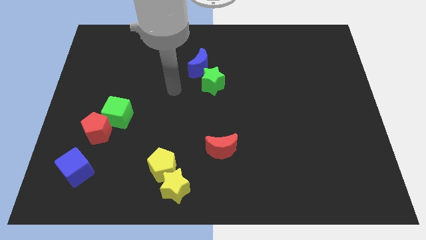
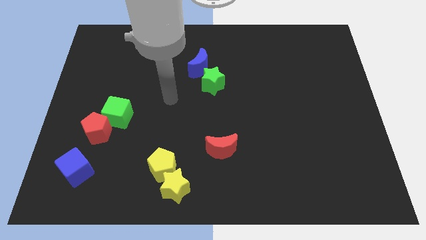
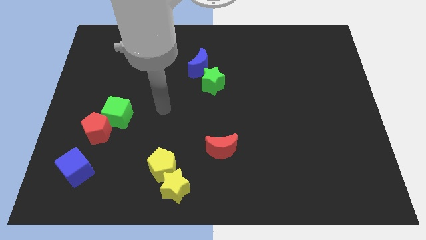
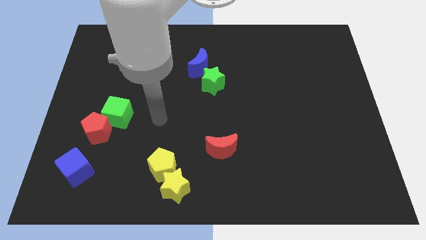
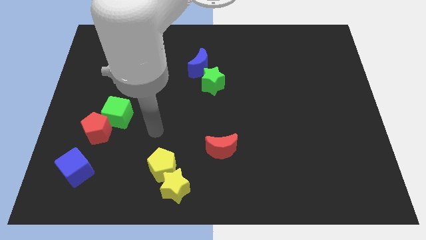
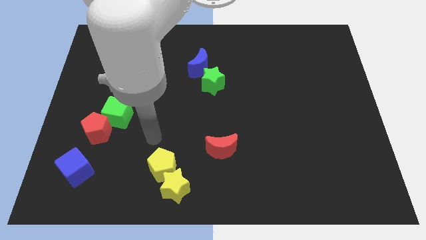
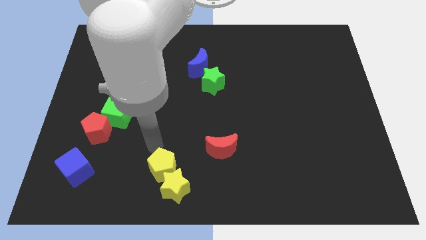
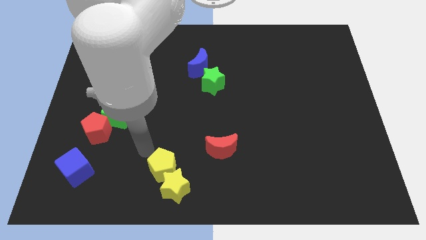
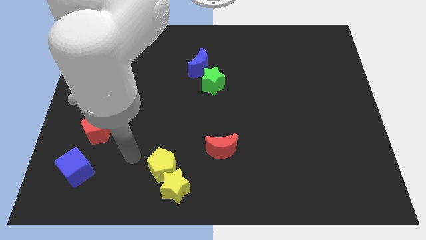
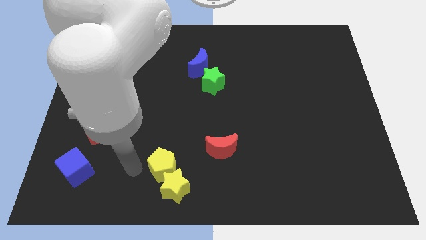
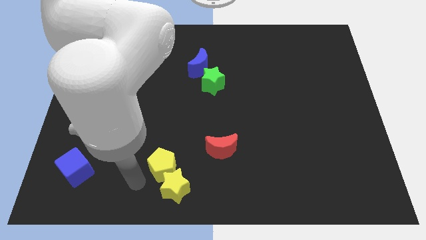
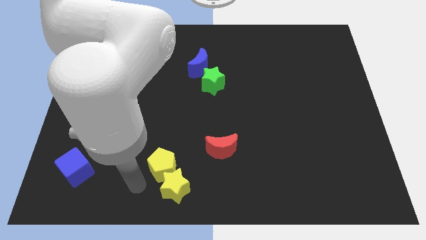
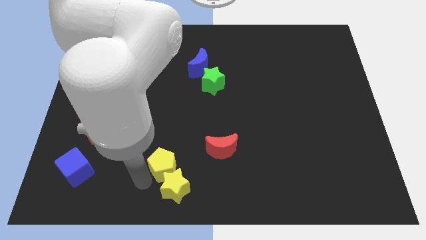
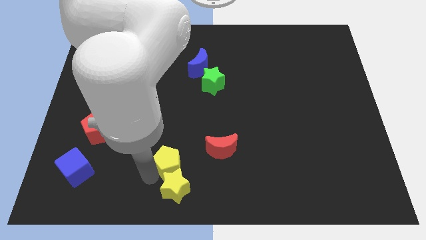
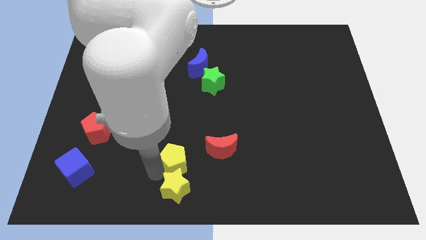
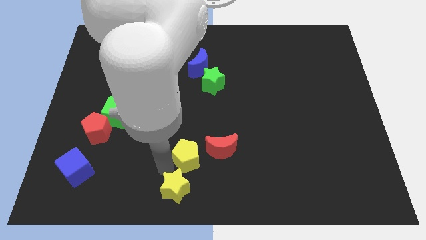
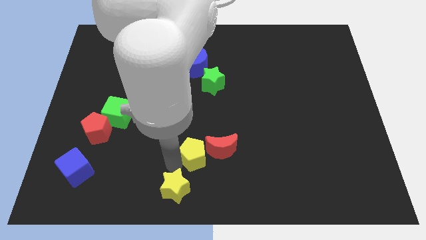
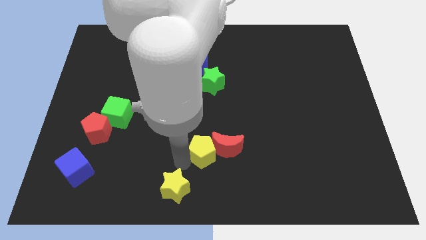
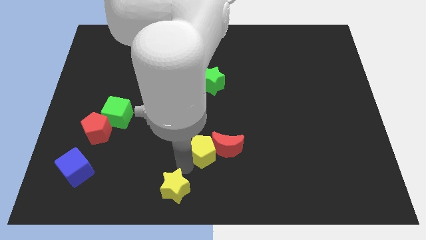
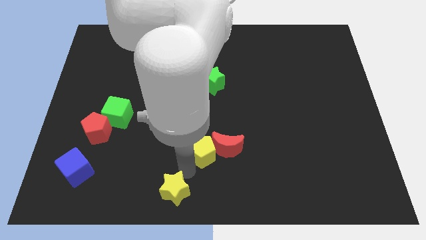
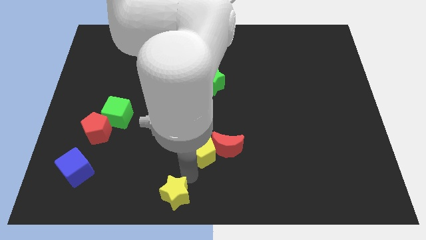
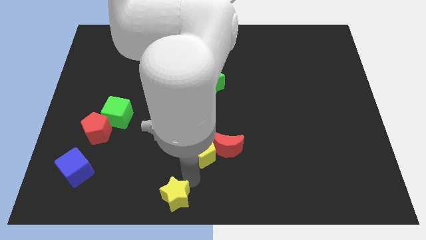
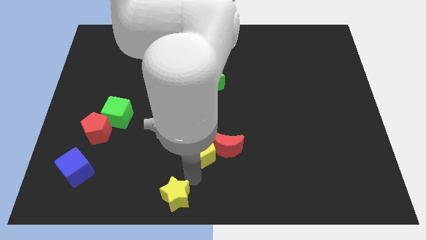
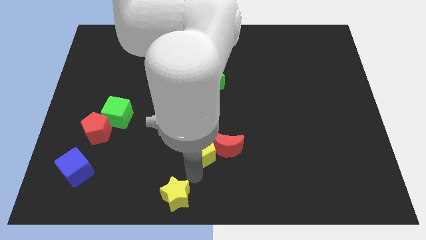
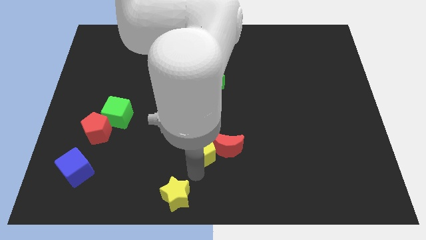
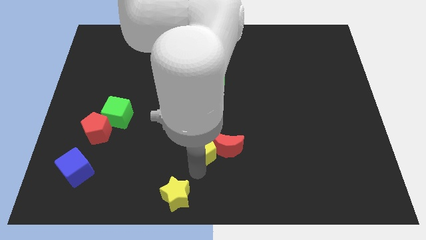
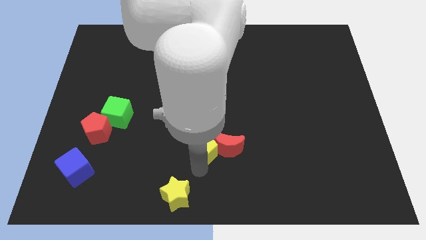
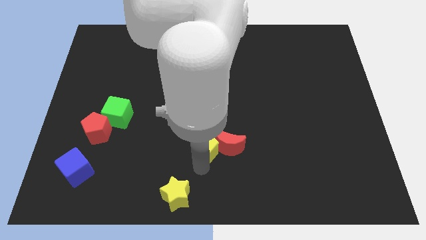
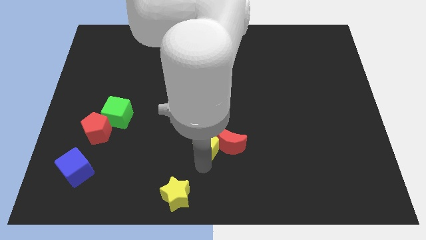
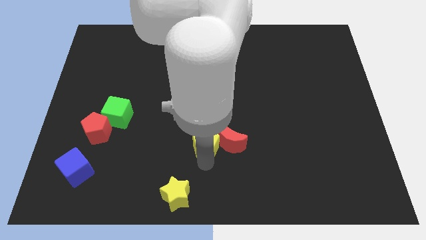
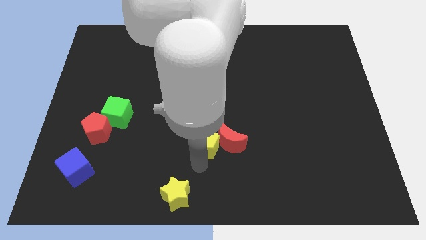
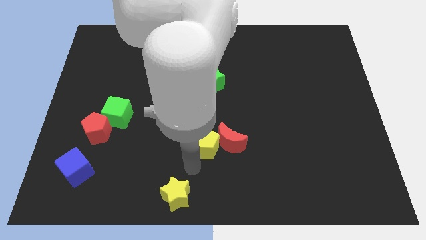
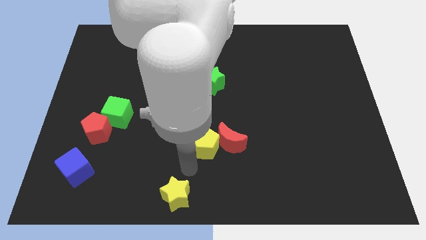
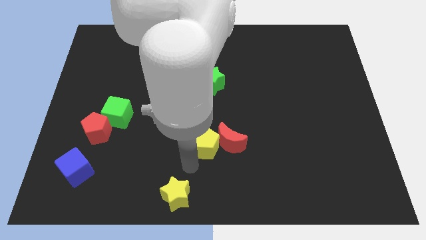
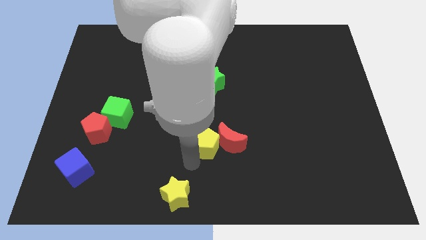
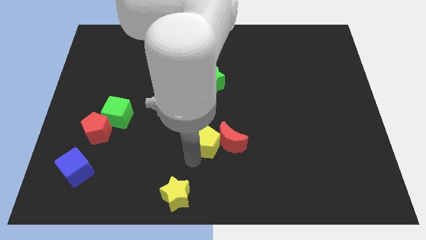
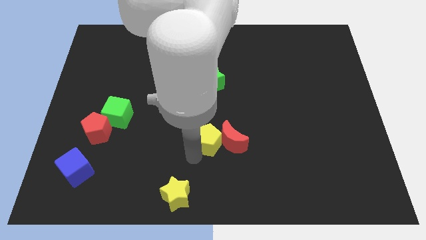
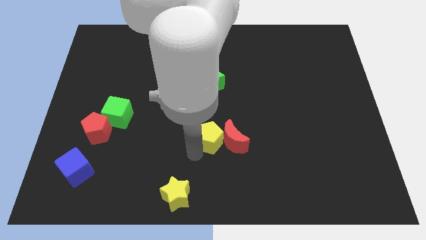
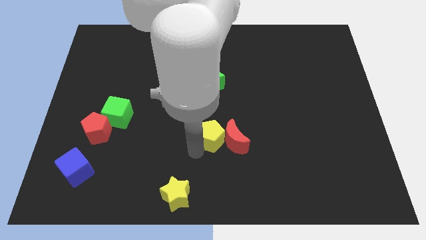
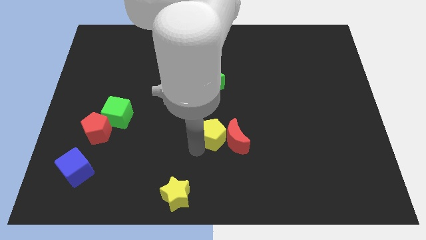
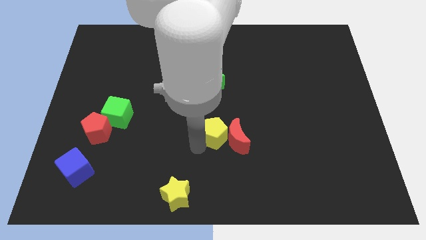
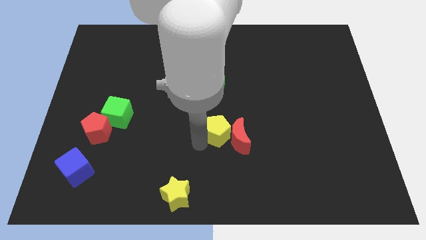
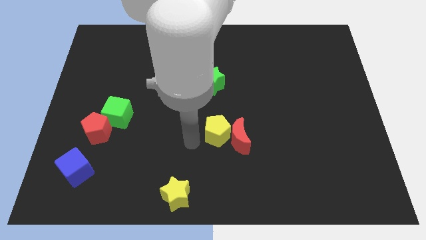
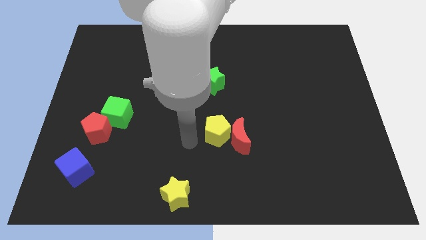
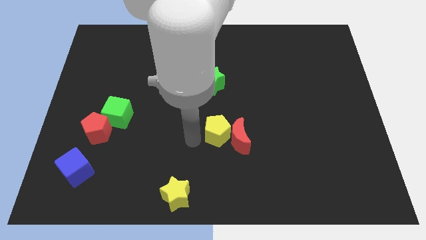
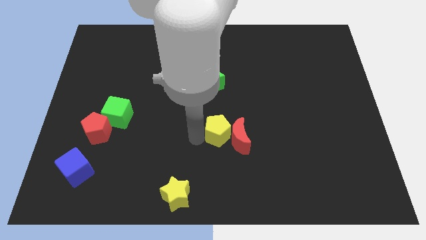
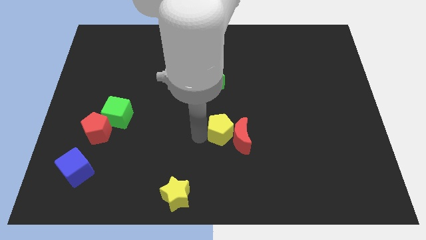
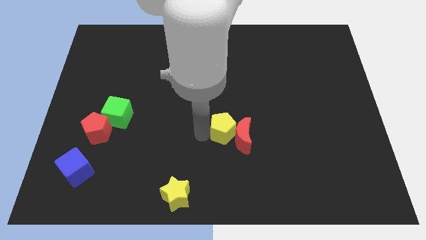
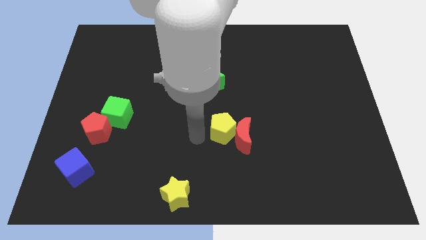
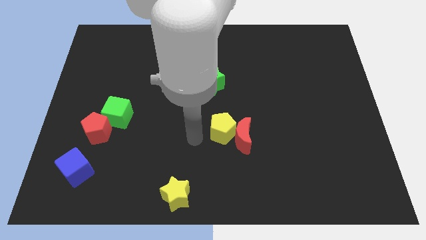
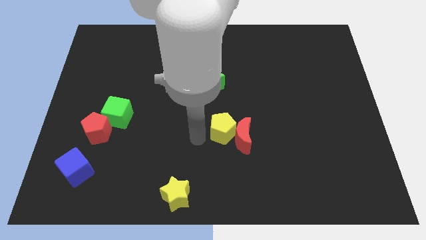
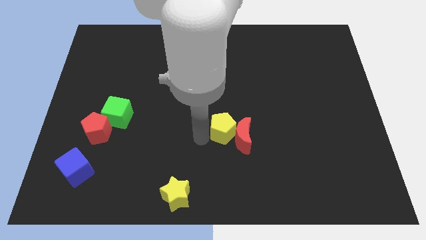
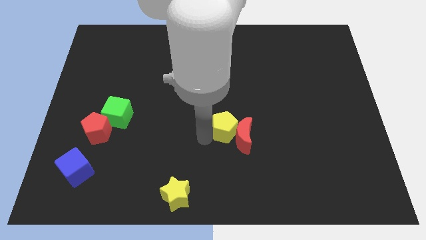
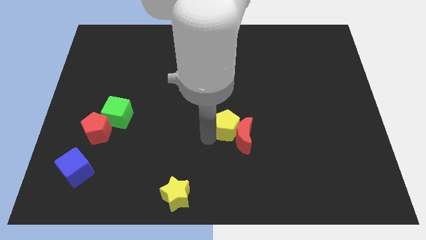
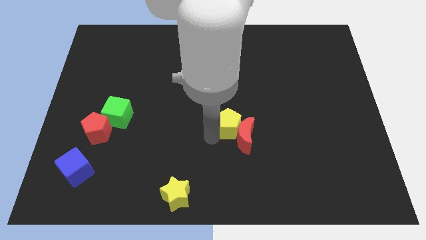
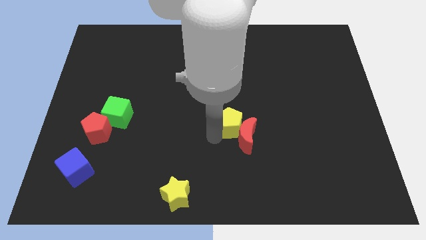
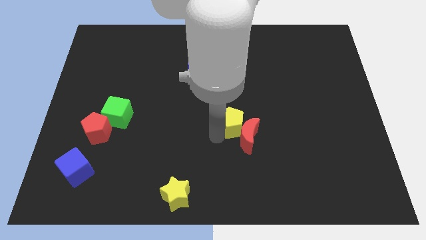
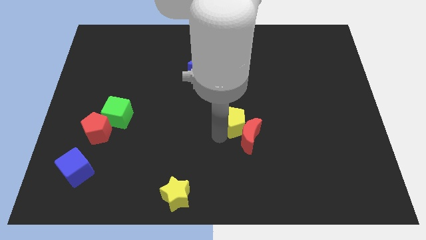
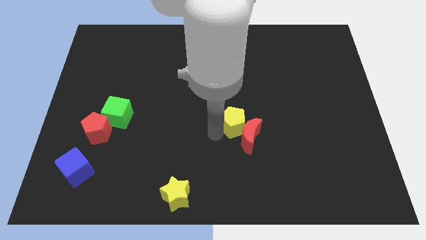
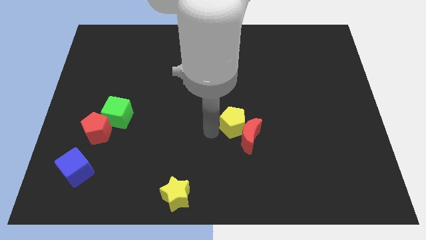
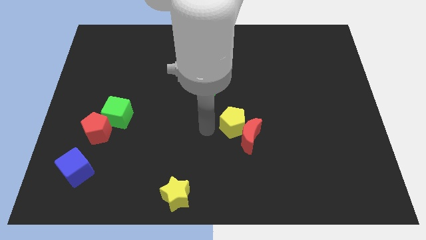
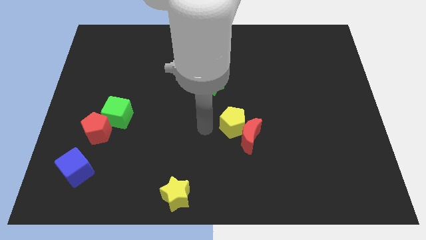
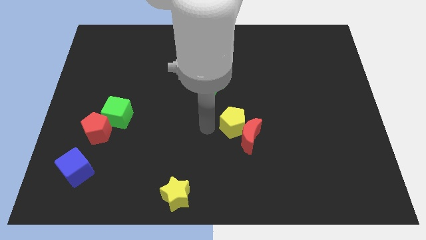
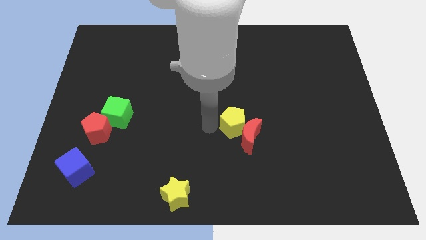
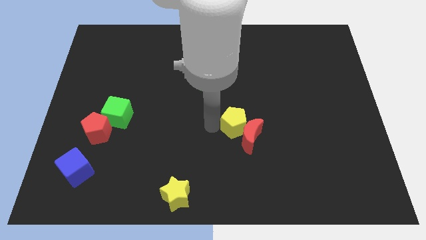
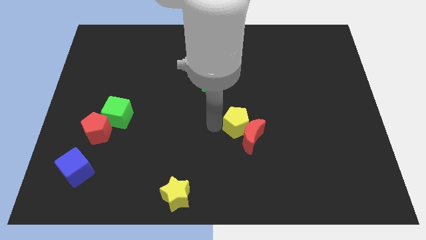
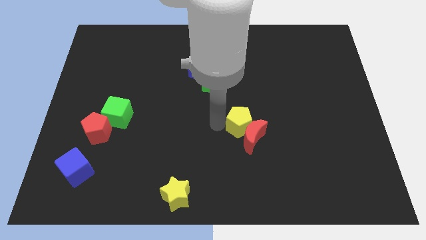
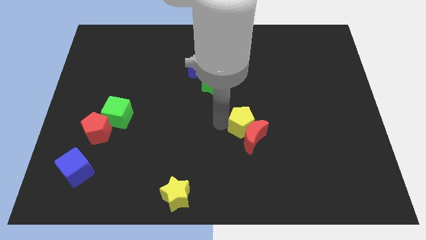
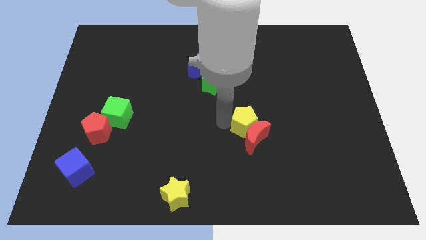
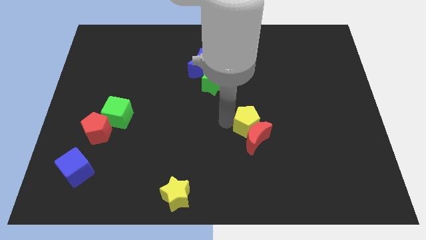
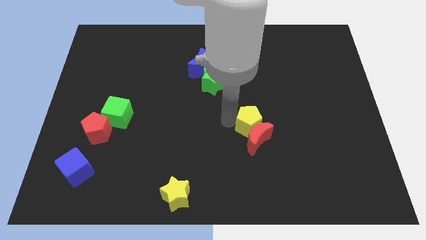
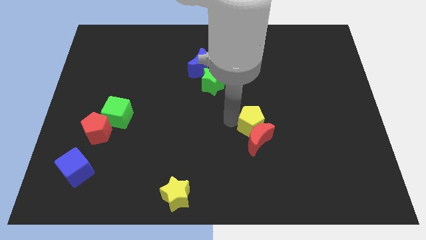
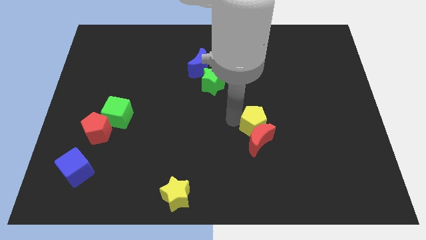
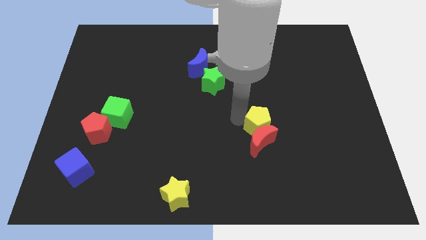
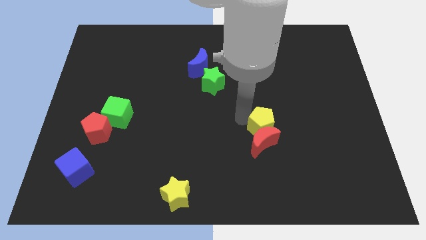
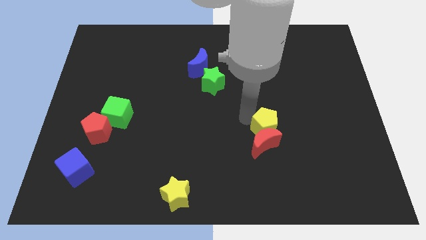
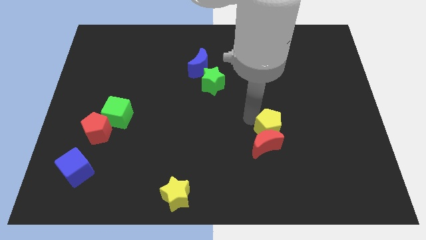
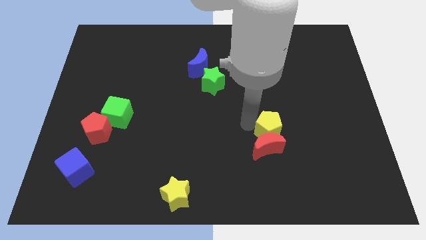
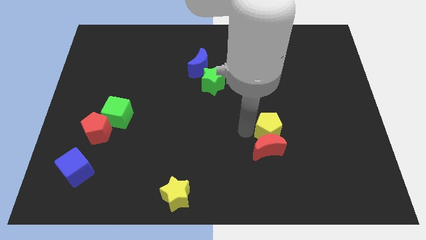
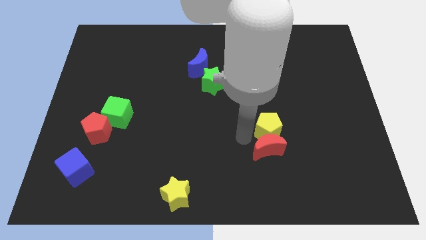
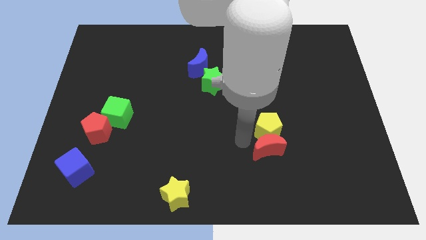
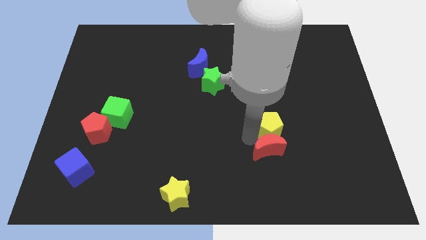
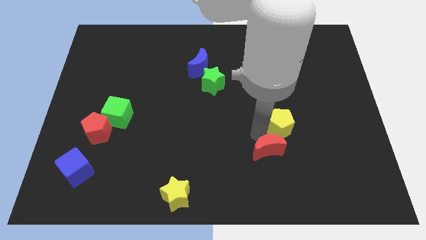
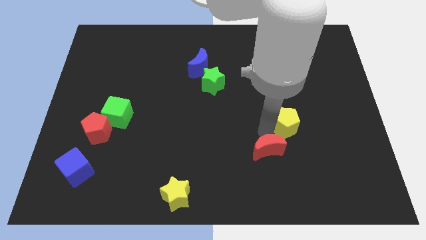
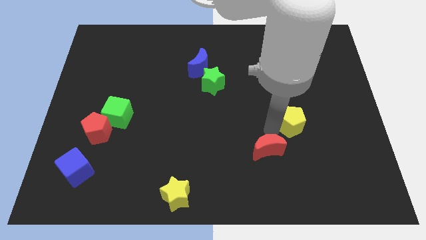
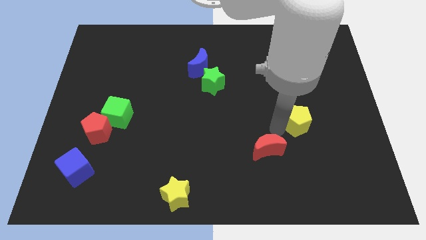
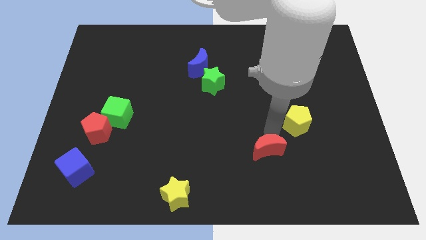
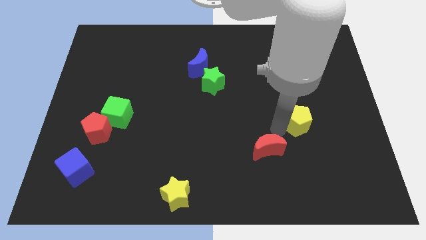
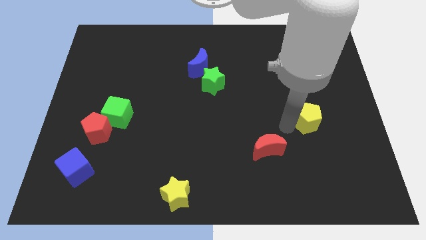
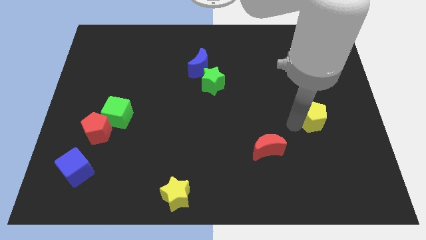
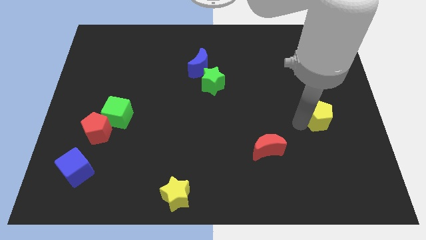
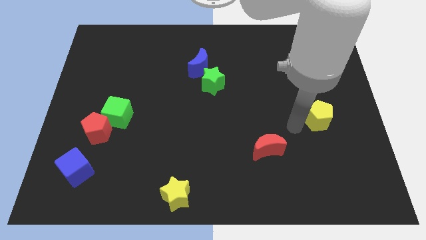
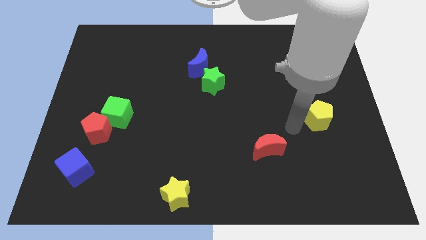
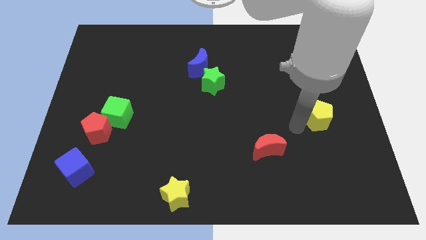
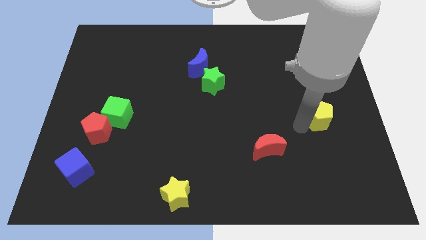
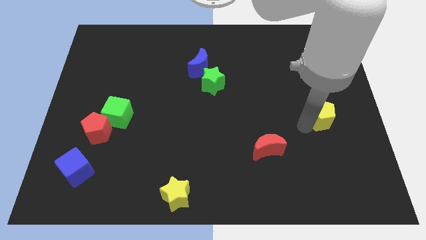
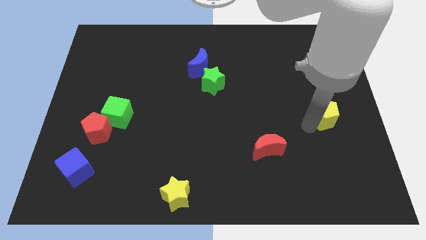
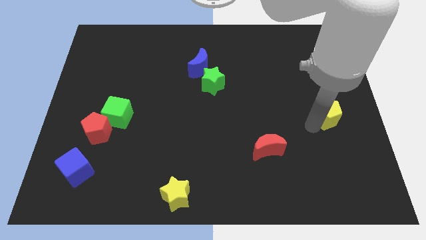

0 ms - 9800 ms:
push the yellow pentagon to the right side
